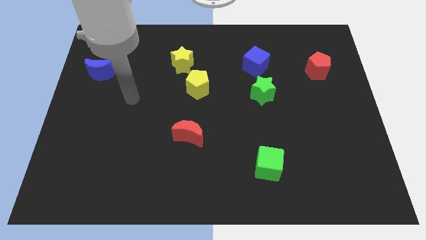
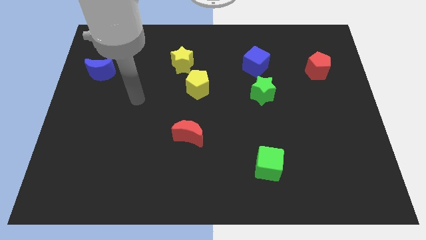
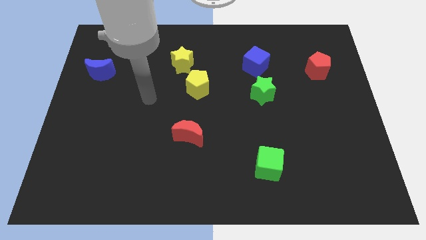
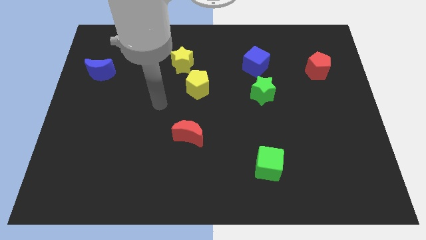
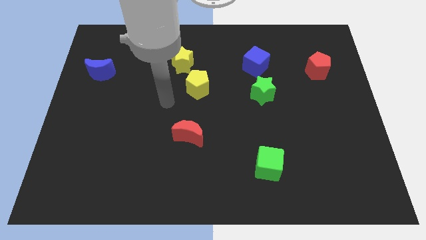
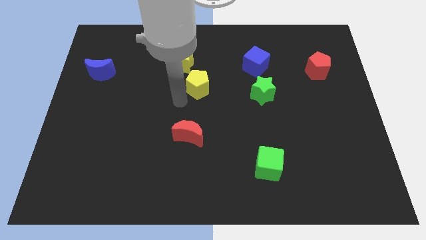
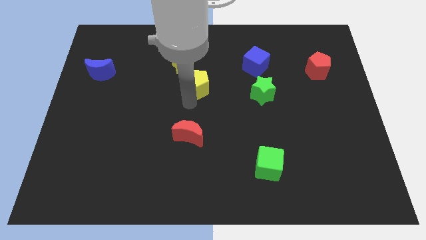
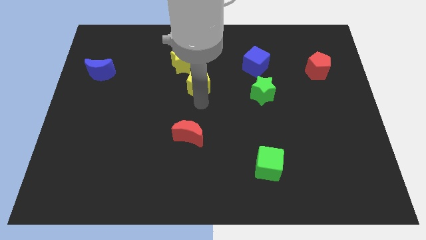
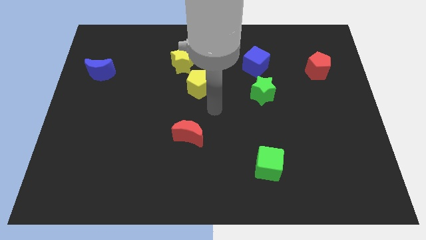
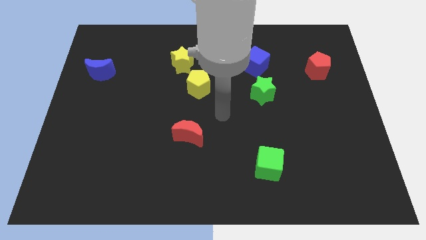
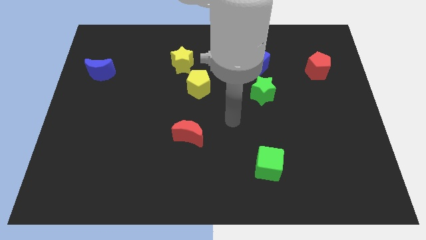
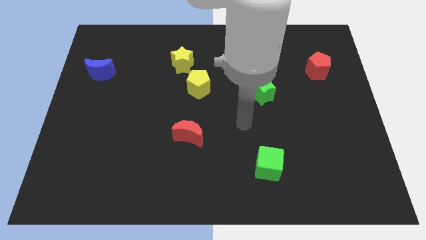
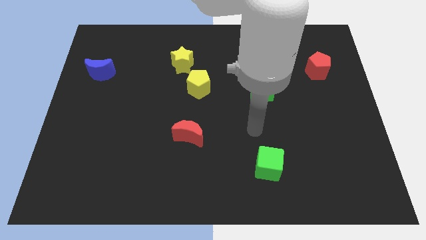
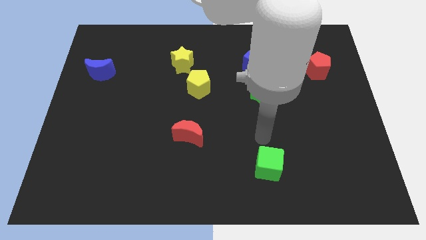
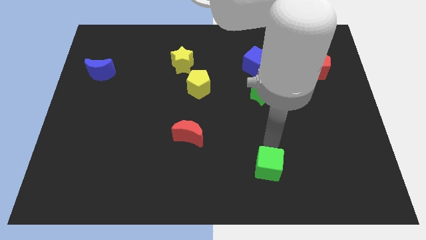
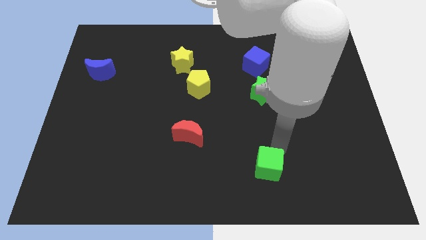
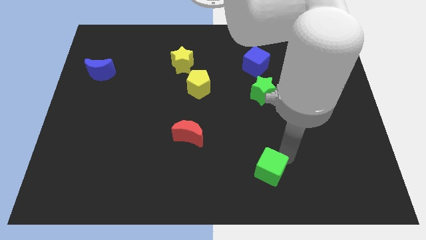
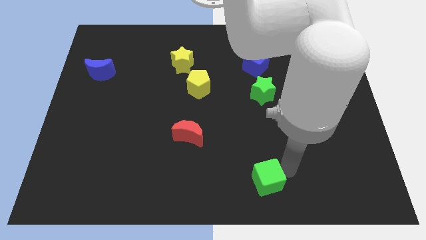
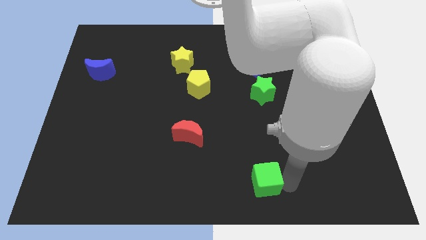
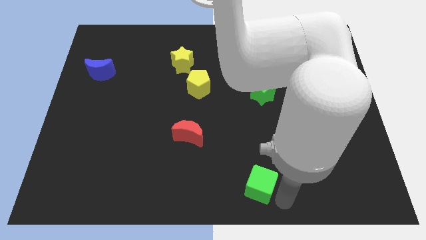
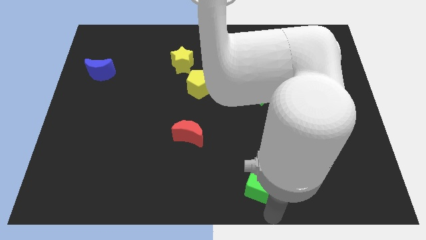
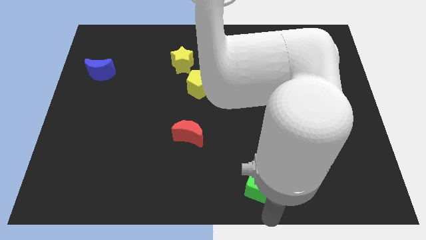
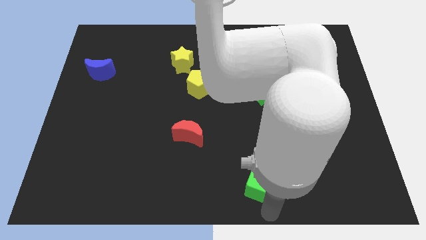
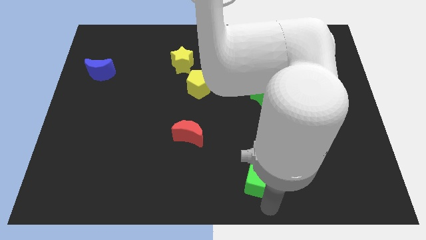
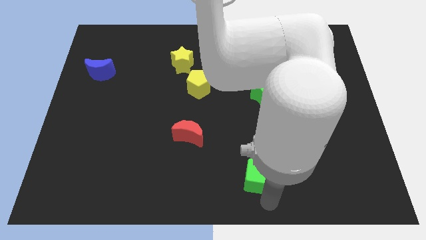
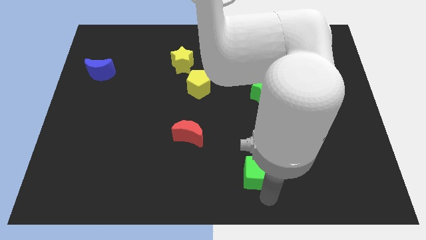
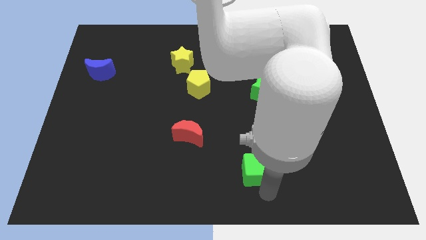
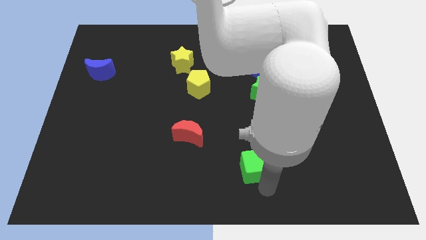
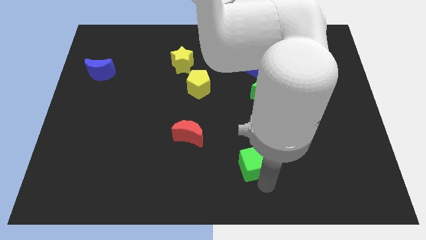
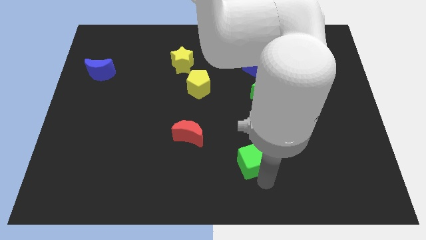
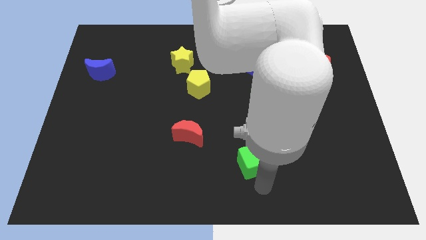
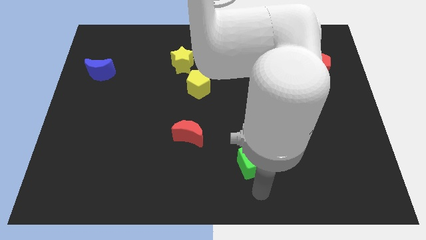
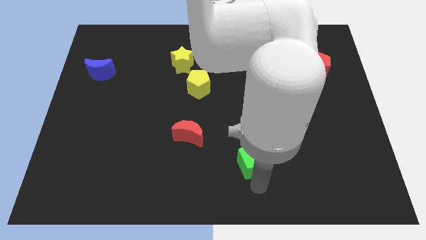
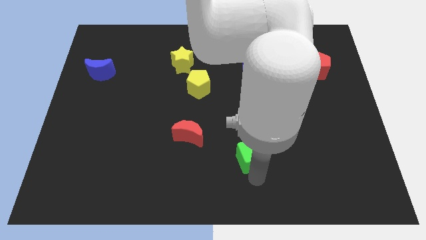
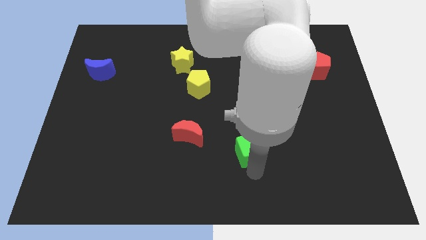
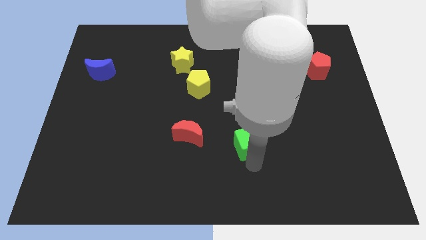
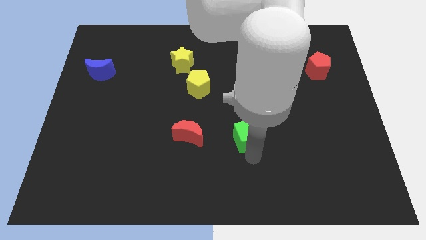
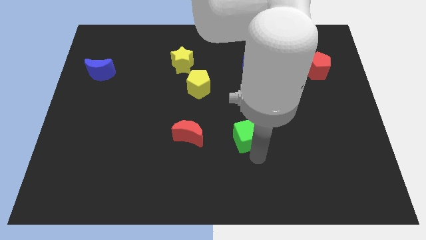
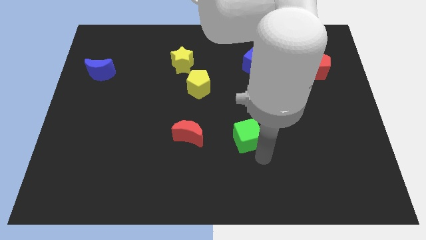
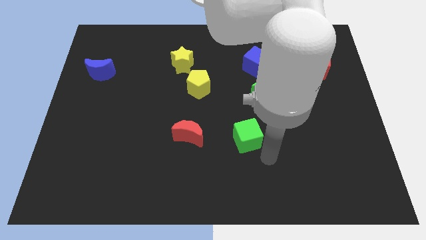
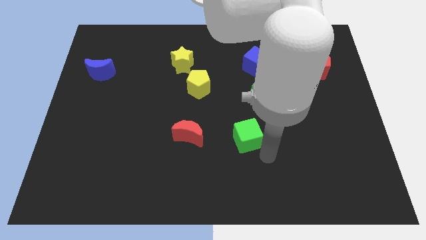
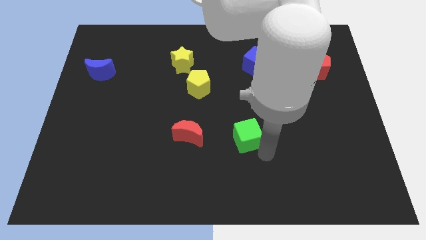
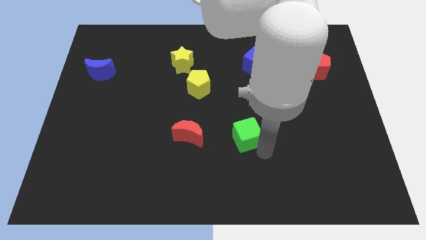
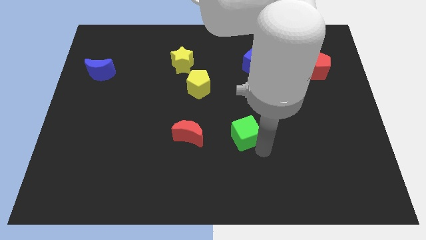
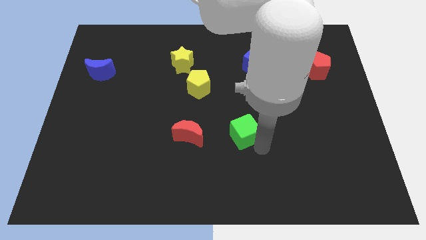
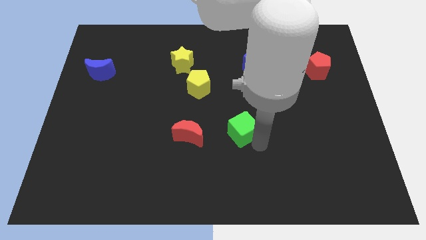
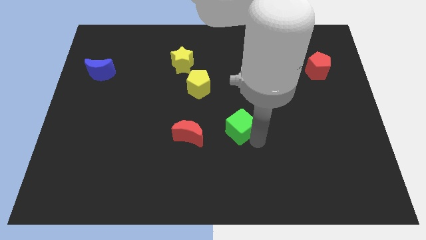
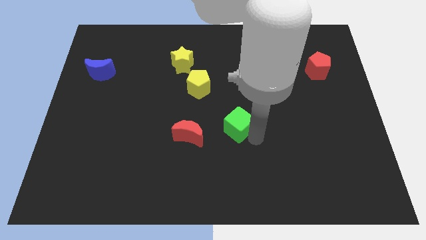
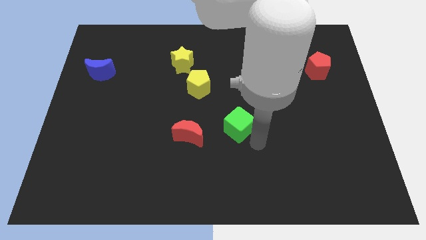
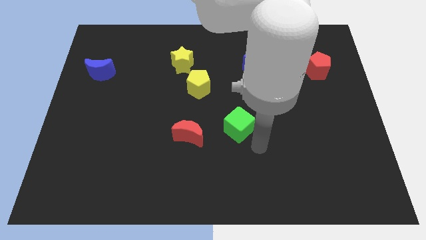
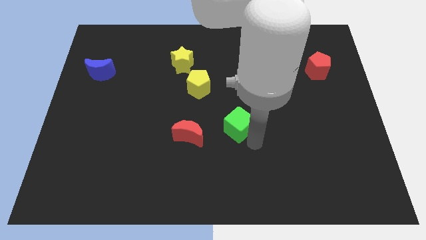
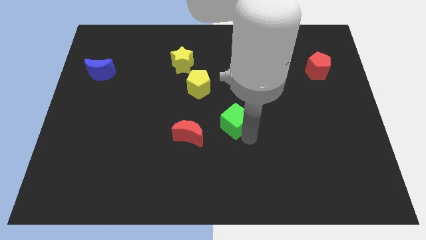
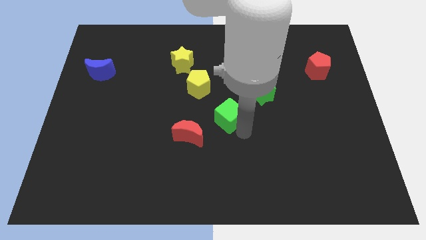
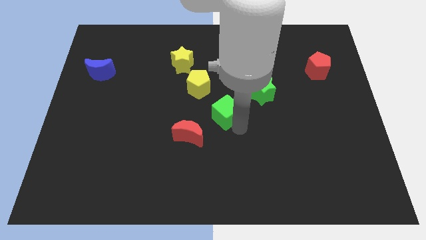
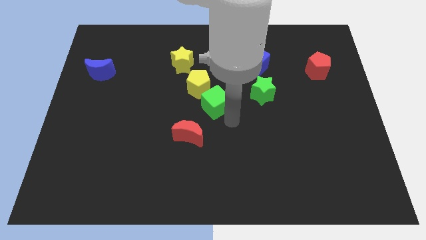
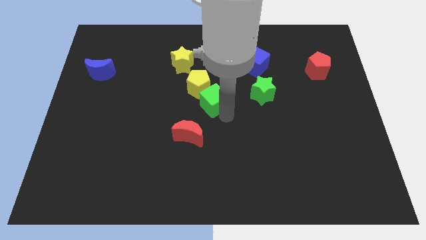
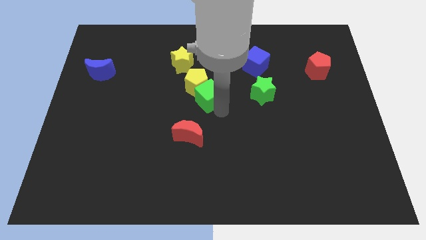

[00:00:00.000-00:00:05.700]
push the green cube close to the yellow pentagon

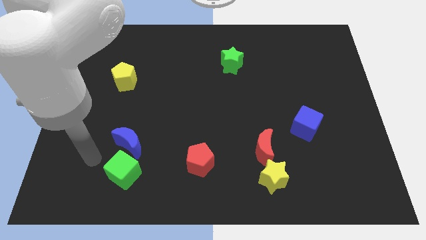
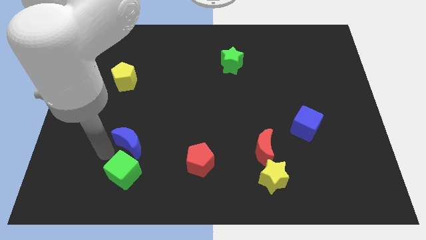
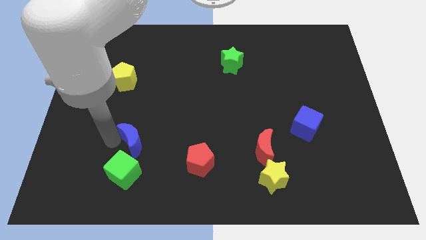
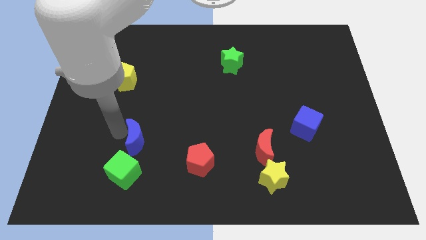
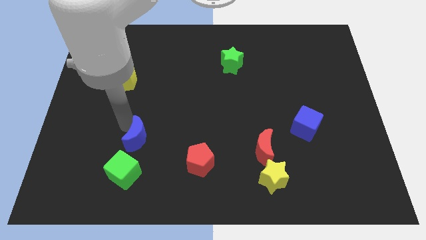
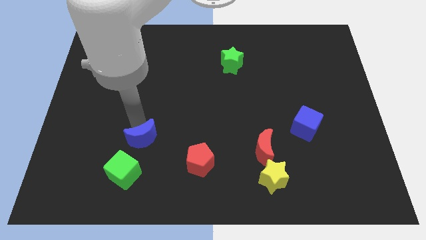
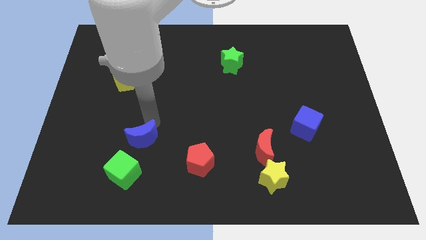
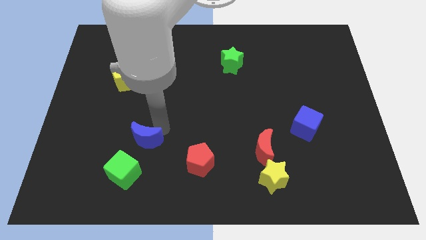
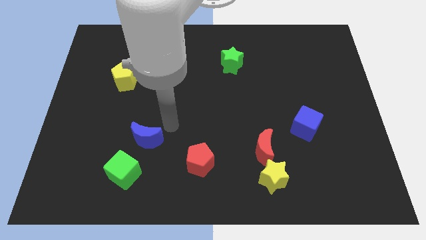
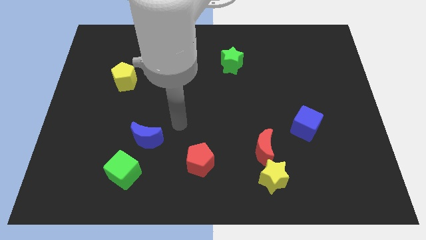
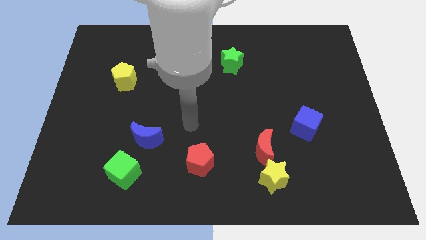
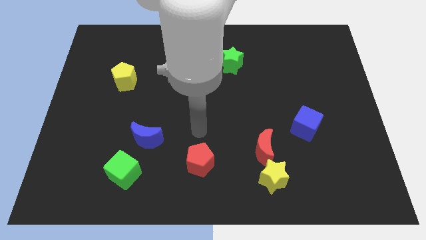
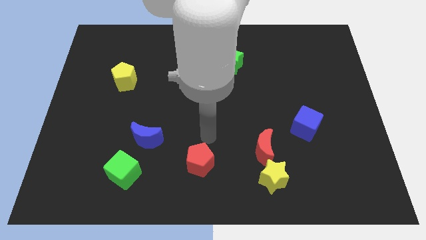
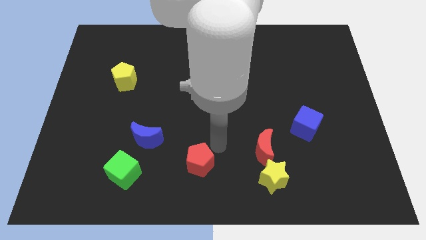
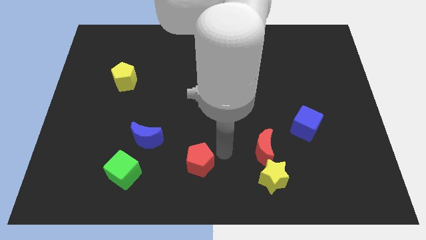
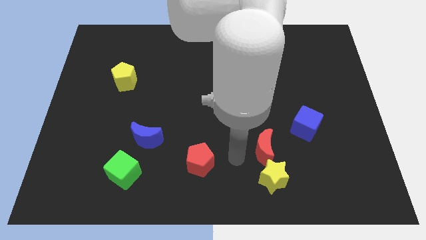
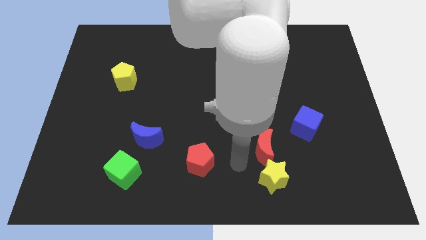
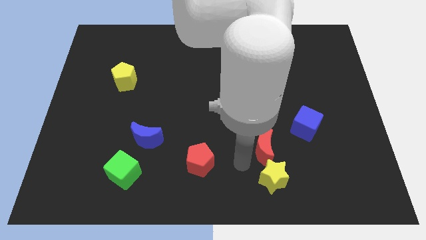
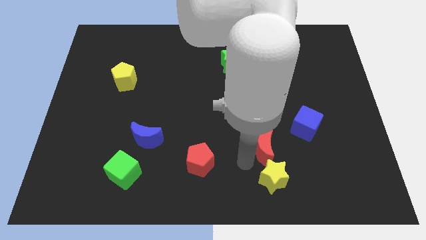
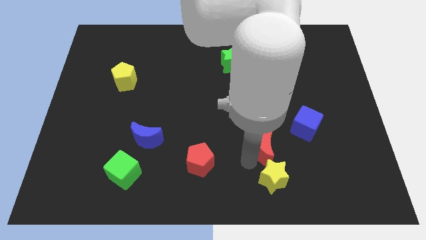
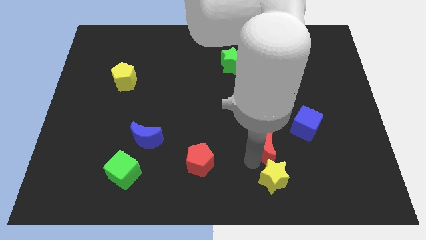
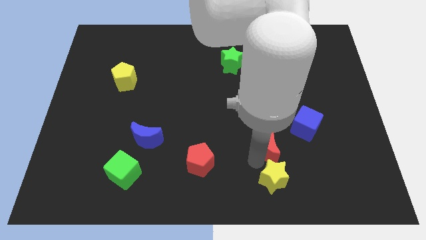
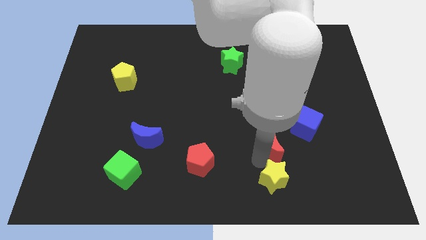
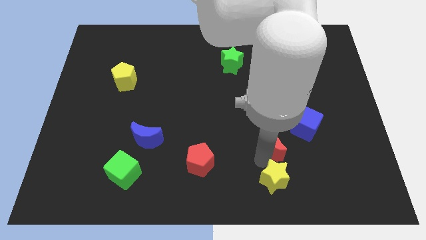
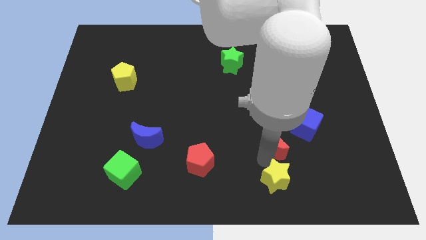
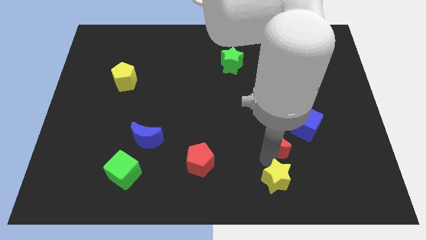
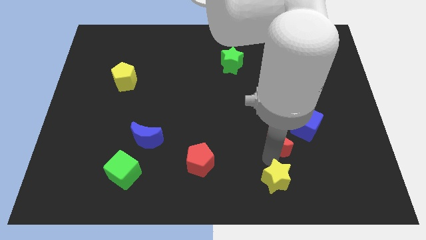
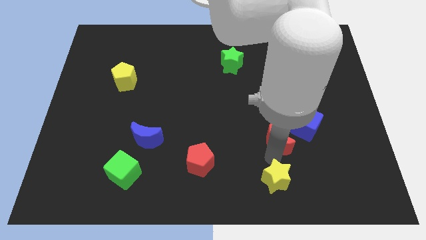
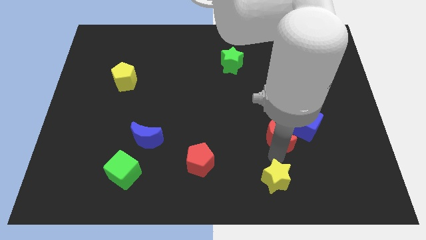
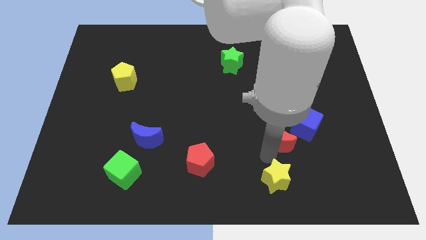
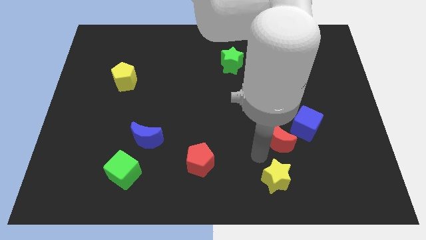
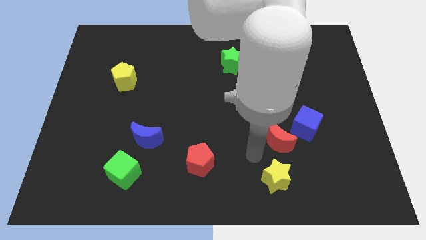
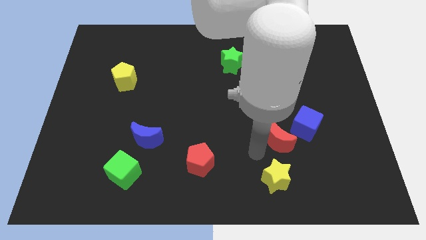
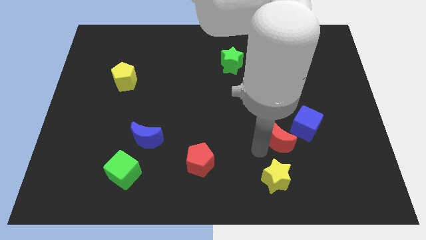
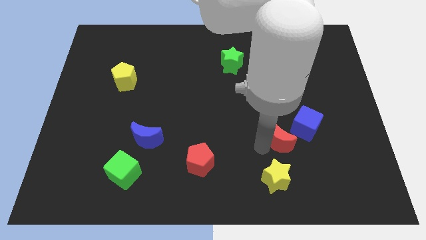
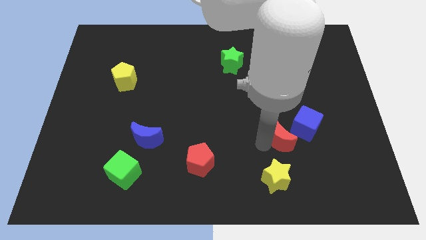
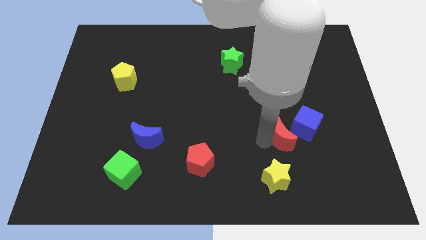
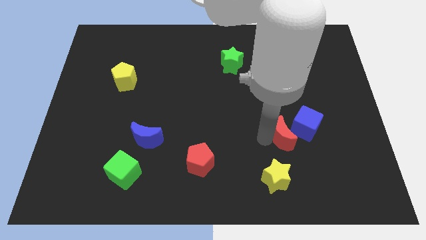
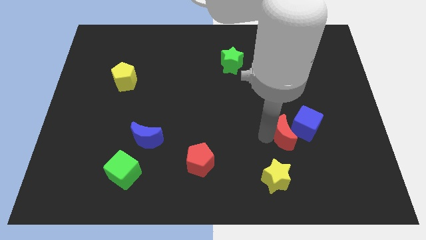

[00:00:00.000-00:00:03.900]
move the red moon to the blue cube
